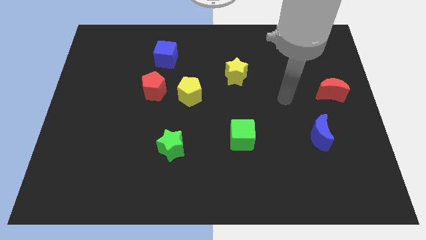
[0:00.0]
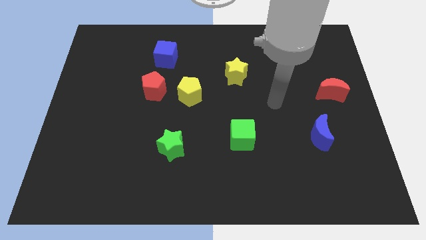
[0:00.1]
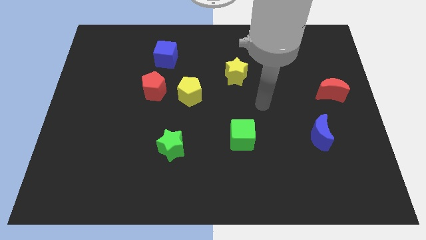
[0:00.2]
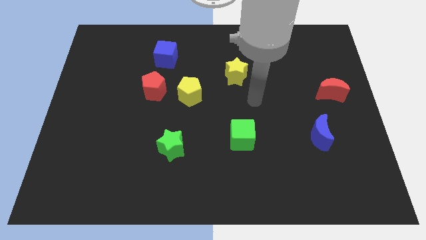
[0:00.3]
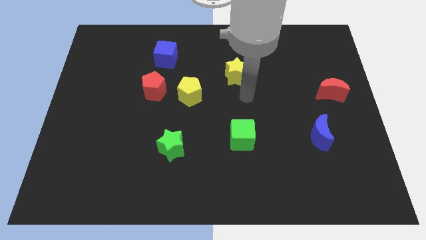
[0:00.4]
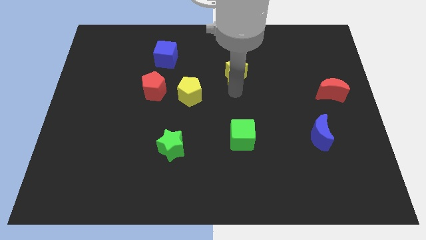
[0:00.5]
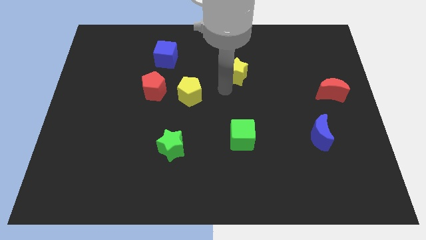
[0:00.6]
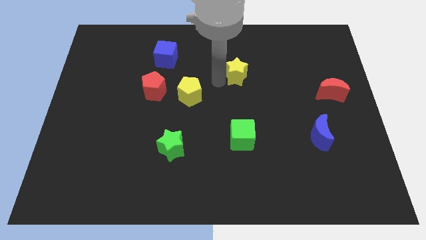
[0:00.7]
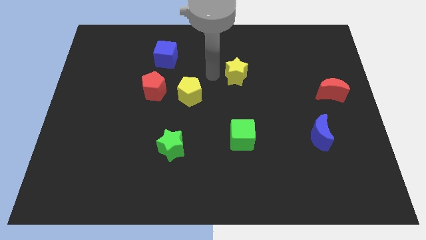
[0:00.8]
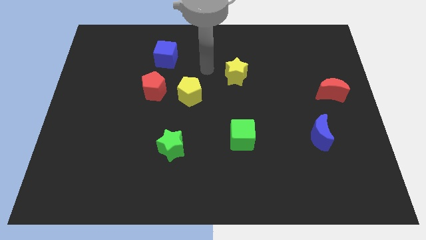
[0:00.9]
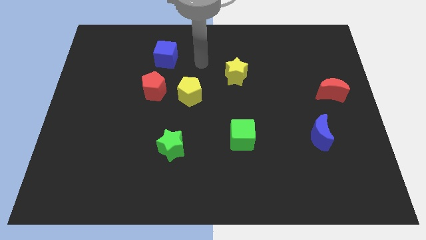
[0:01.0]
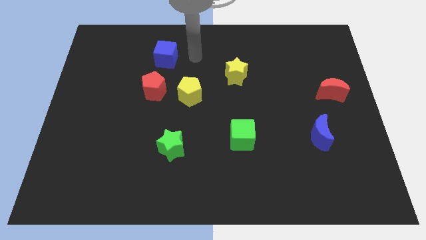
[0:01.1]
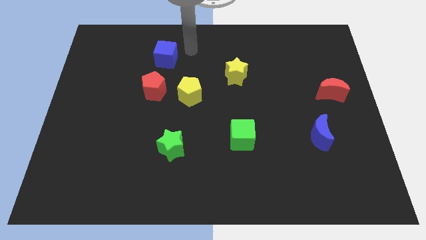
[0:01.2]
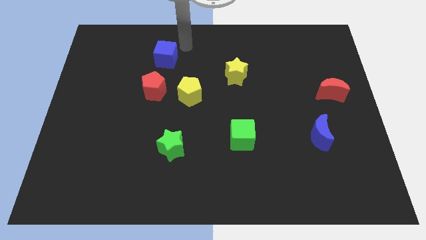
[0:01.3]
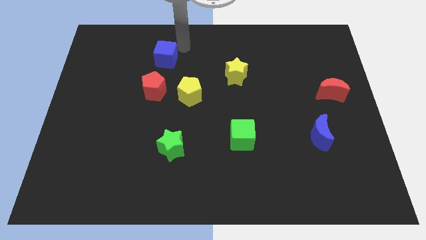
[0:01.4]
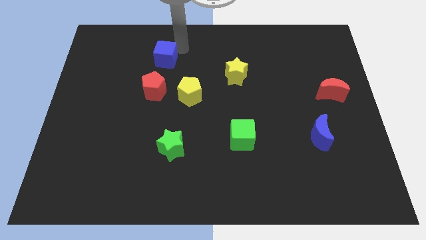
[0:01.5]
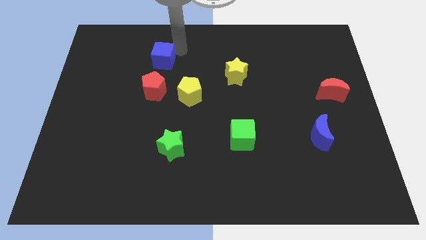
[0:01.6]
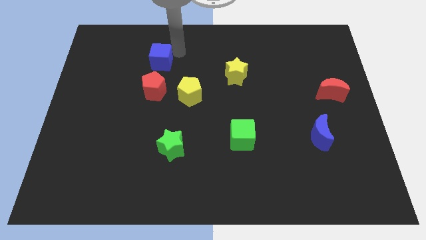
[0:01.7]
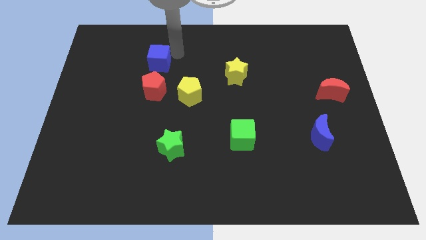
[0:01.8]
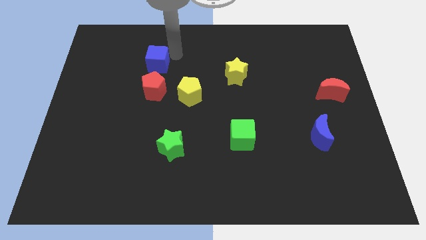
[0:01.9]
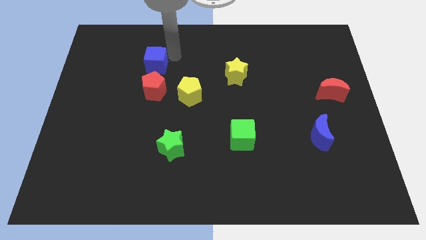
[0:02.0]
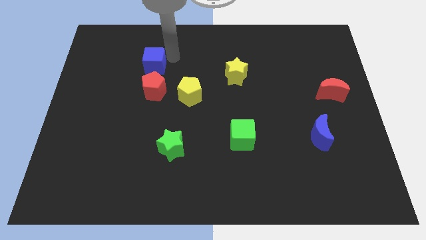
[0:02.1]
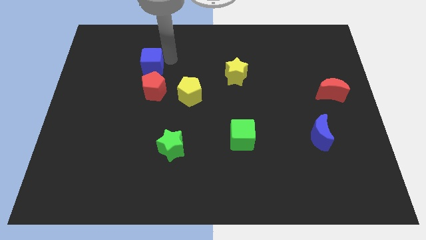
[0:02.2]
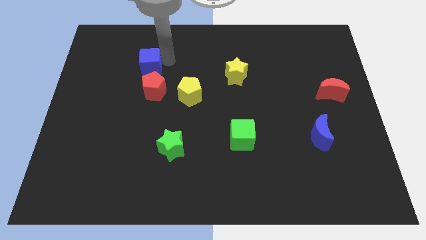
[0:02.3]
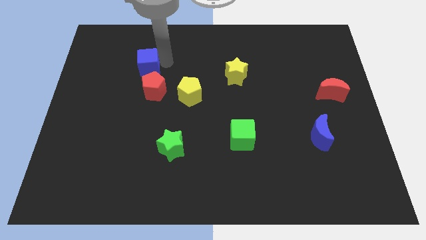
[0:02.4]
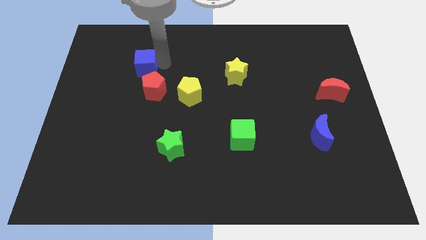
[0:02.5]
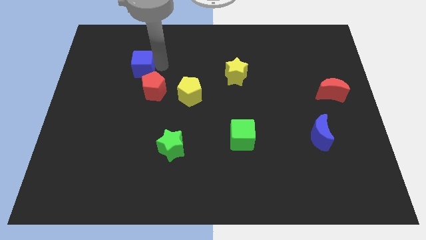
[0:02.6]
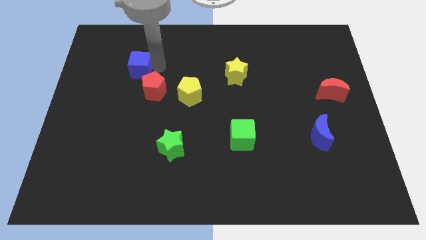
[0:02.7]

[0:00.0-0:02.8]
slightly move the blue cube downwards and to the left diagonally

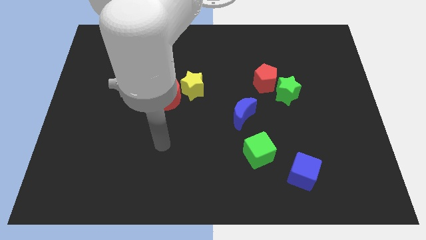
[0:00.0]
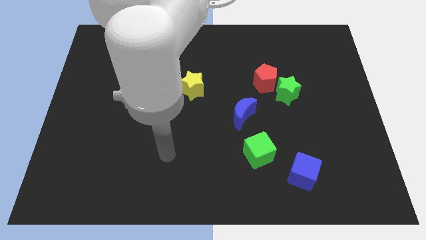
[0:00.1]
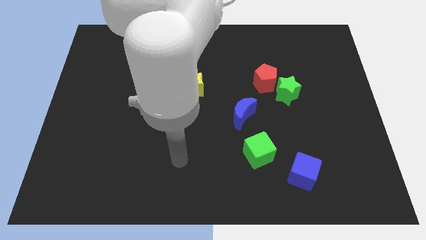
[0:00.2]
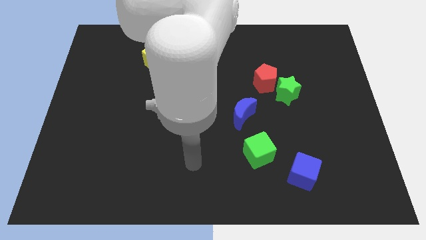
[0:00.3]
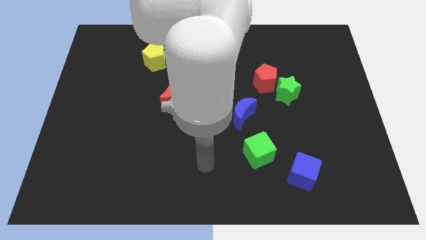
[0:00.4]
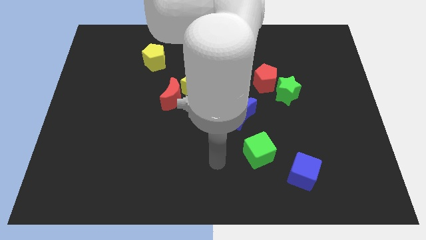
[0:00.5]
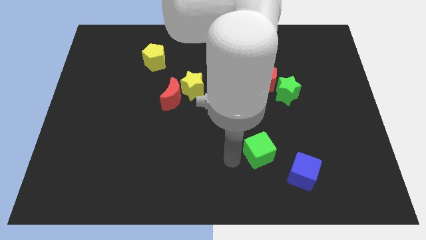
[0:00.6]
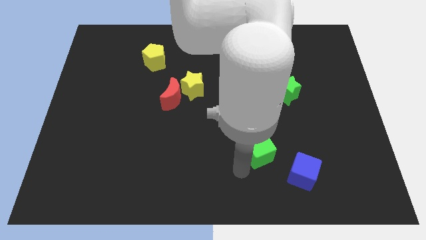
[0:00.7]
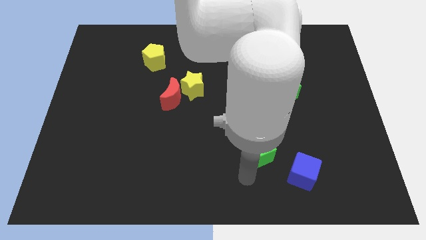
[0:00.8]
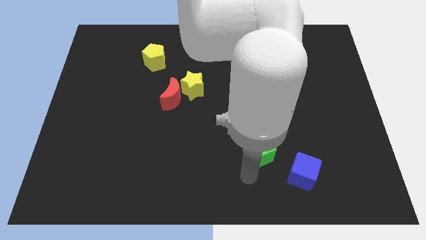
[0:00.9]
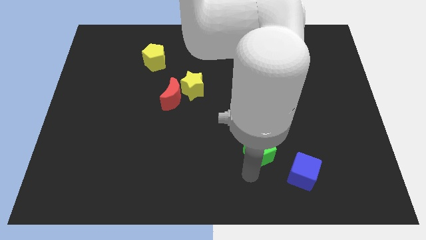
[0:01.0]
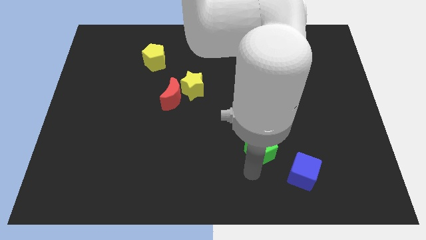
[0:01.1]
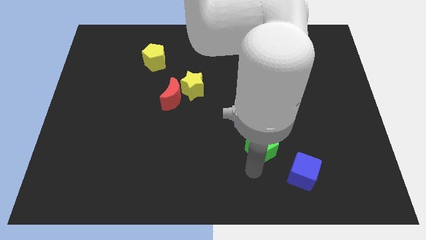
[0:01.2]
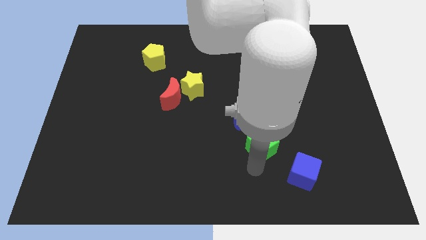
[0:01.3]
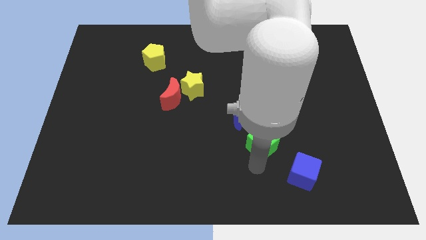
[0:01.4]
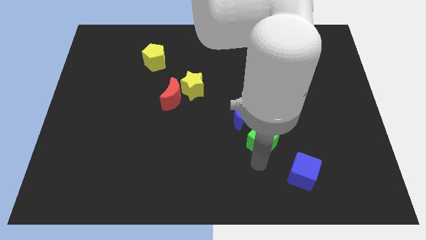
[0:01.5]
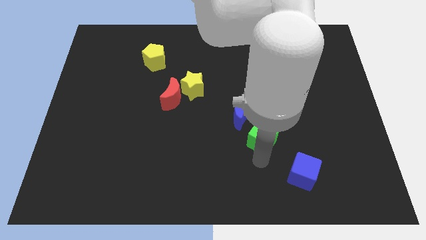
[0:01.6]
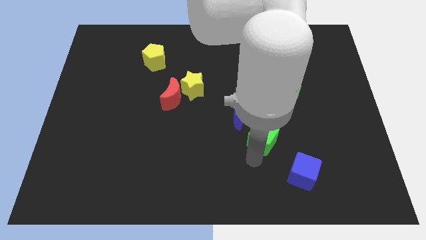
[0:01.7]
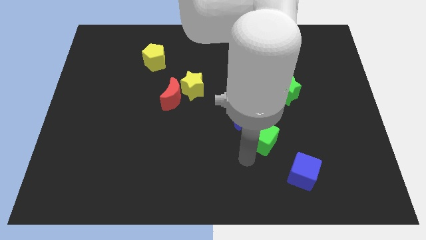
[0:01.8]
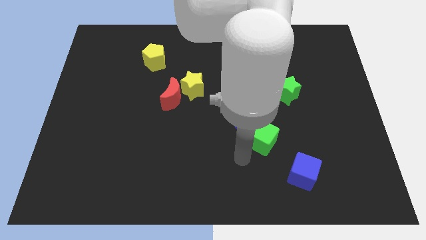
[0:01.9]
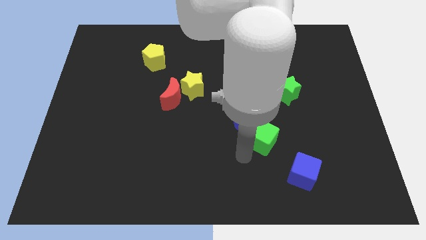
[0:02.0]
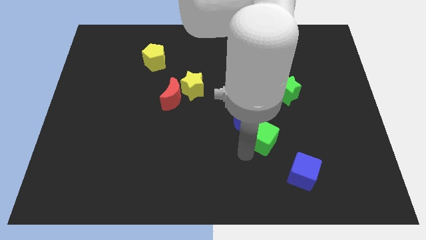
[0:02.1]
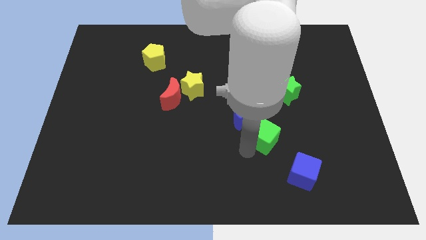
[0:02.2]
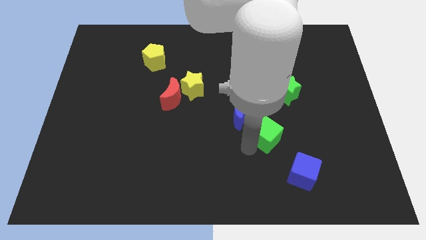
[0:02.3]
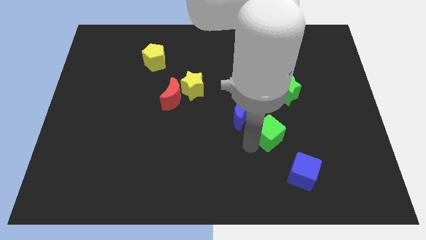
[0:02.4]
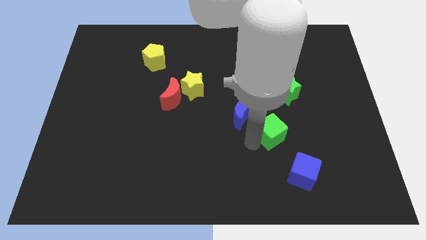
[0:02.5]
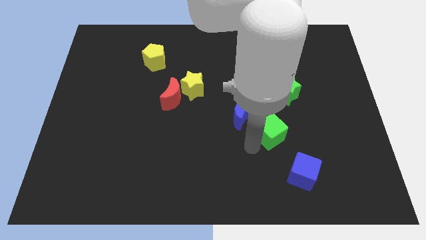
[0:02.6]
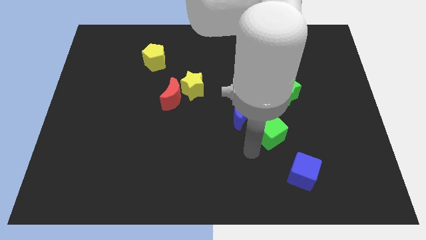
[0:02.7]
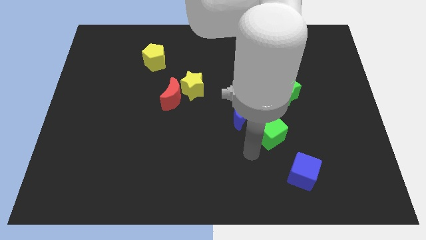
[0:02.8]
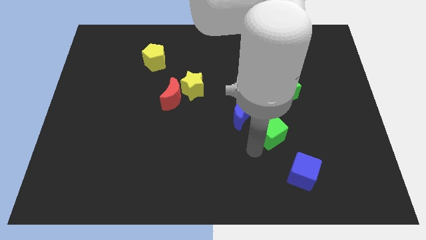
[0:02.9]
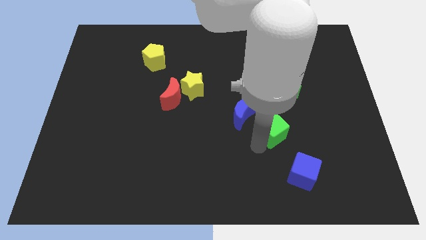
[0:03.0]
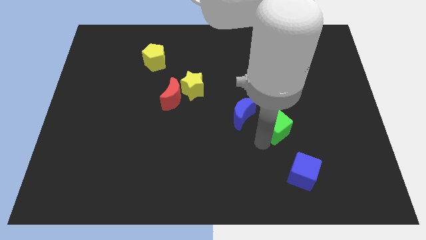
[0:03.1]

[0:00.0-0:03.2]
slide the green cube a little upwards and then to the right

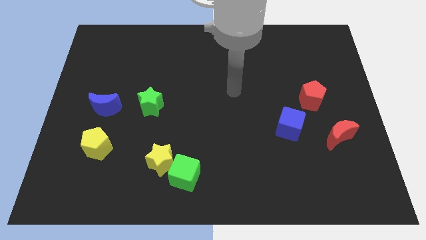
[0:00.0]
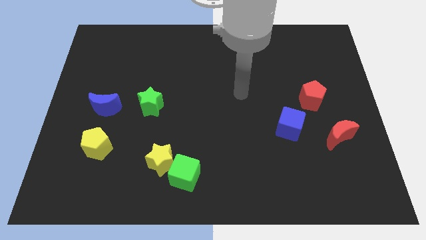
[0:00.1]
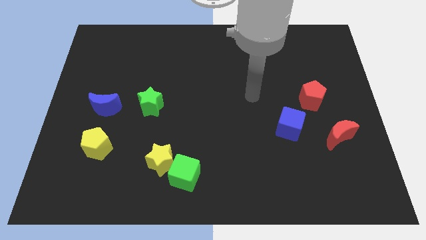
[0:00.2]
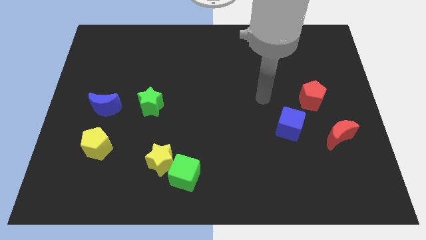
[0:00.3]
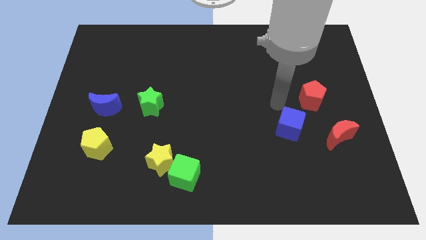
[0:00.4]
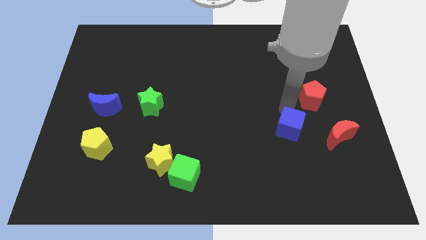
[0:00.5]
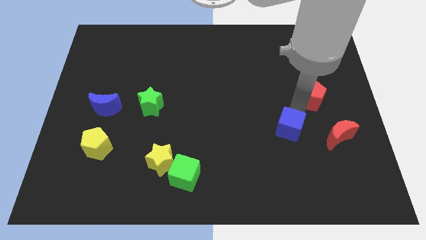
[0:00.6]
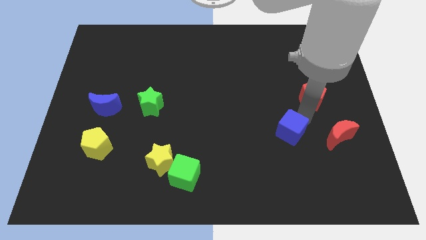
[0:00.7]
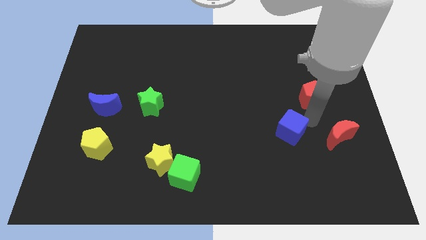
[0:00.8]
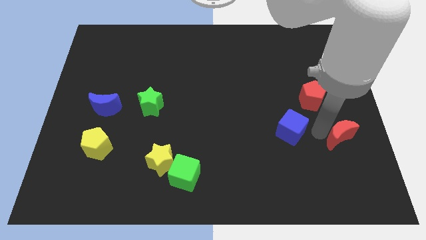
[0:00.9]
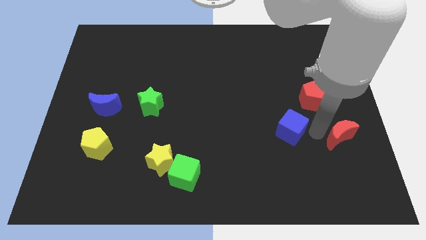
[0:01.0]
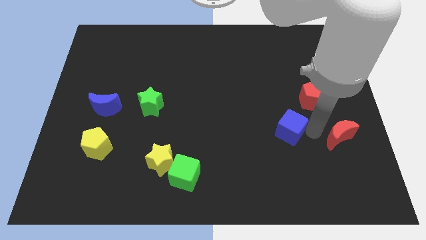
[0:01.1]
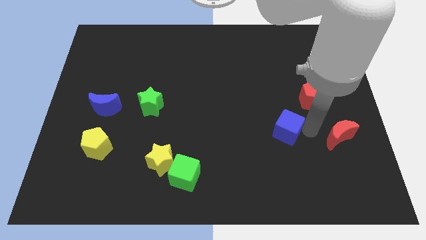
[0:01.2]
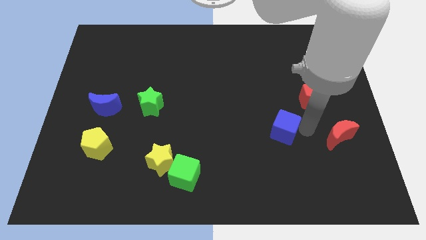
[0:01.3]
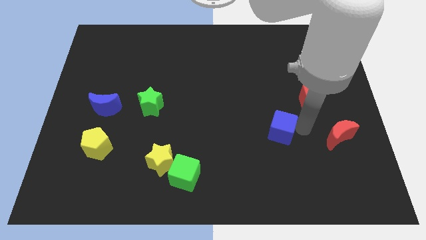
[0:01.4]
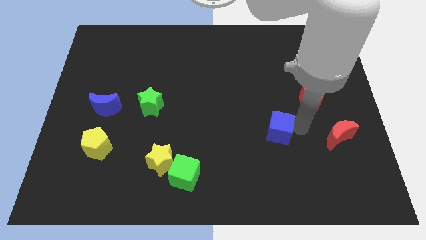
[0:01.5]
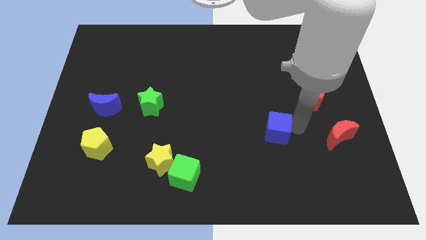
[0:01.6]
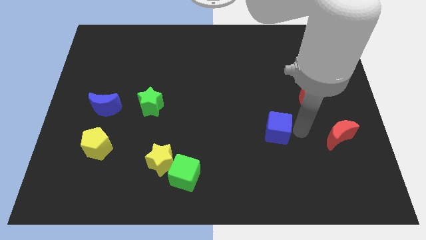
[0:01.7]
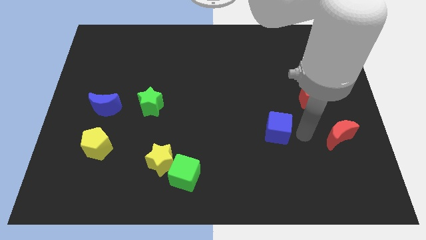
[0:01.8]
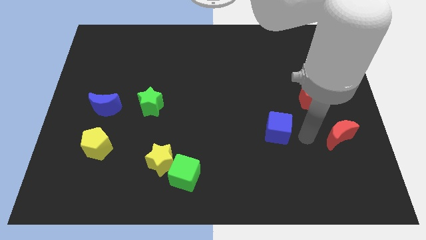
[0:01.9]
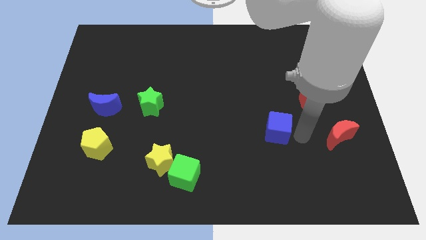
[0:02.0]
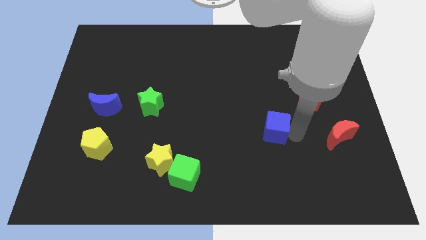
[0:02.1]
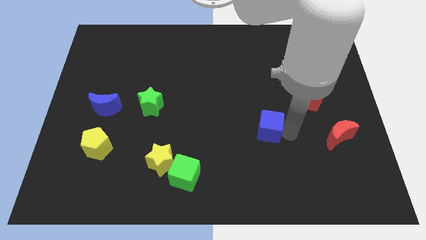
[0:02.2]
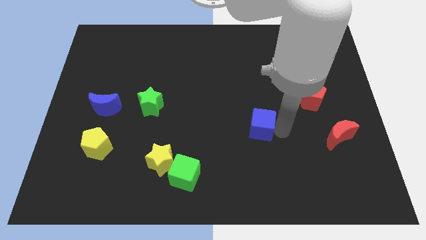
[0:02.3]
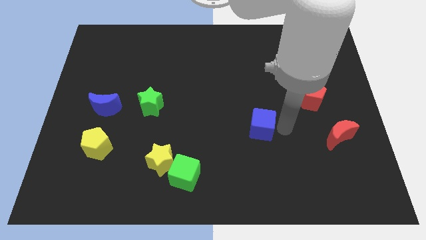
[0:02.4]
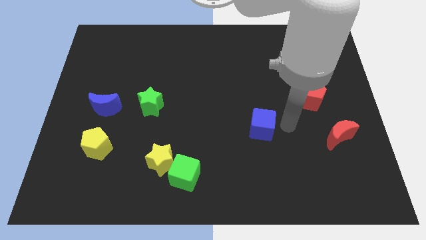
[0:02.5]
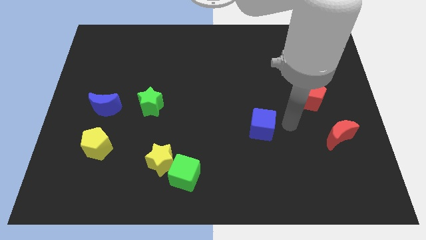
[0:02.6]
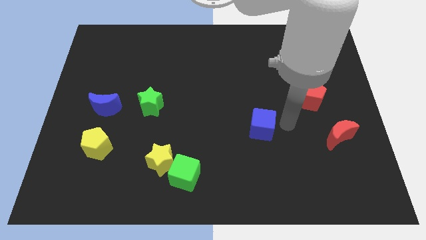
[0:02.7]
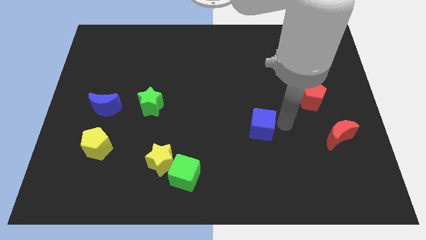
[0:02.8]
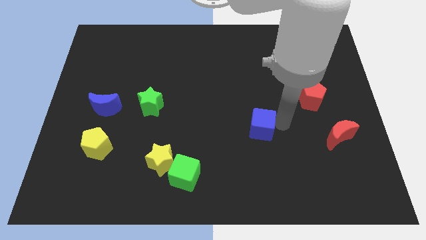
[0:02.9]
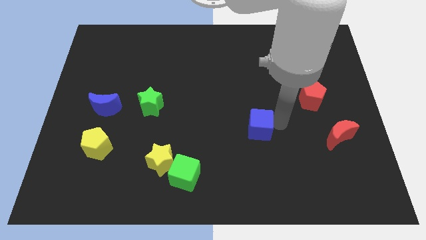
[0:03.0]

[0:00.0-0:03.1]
slide the blue cube a little to the left
